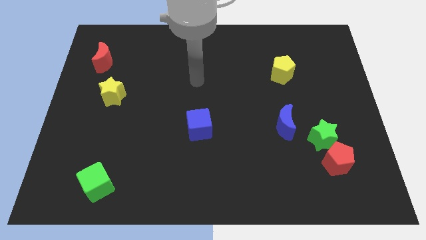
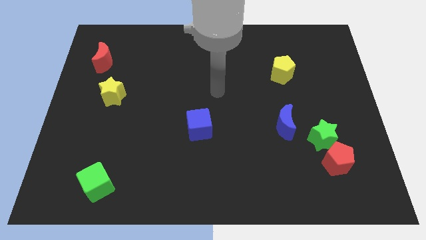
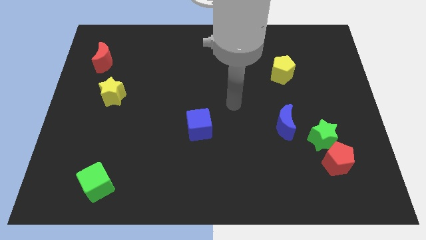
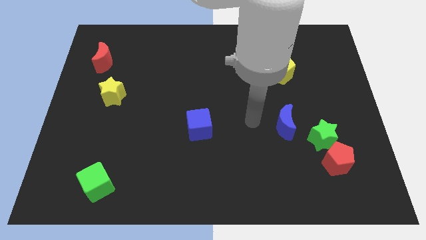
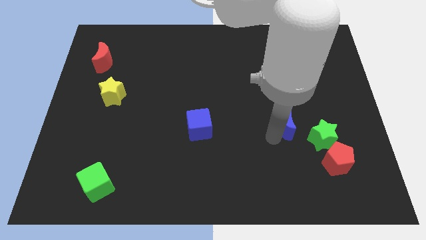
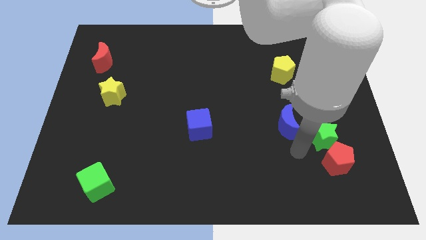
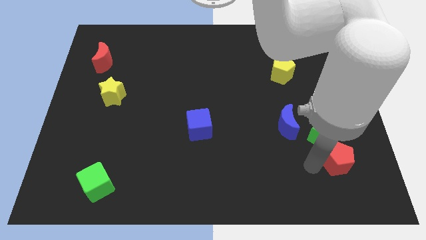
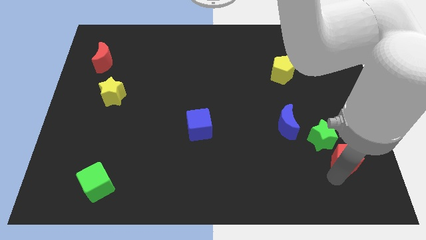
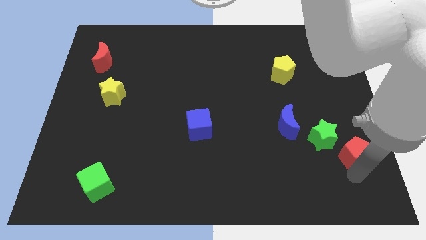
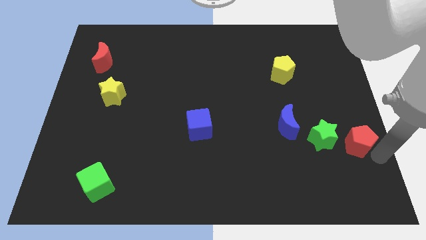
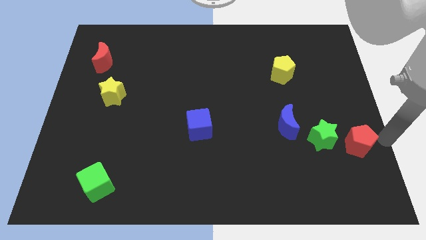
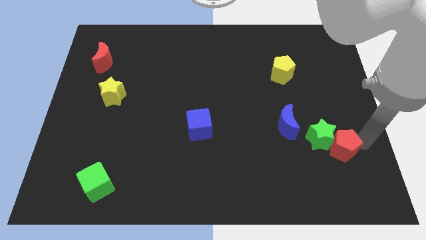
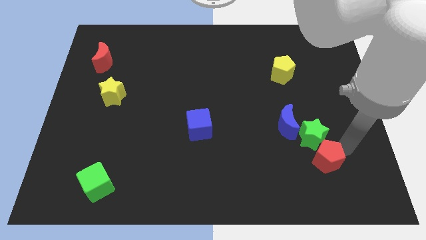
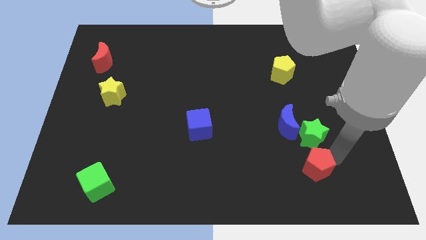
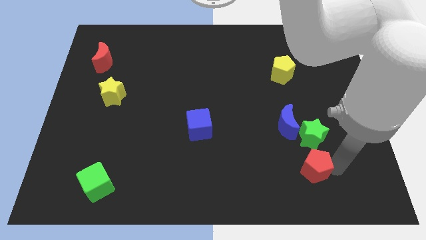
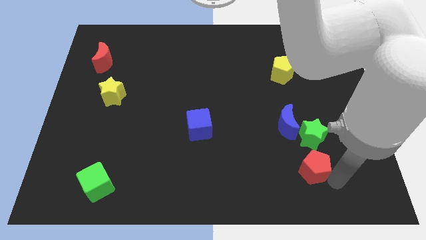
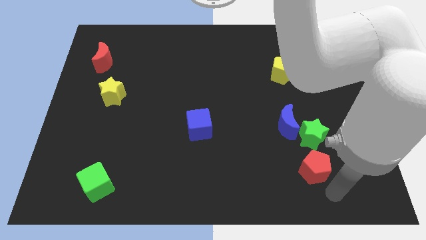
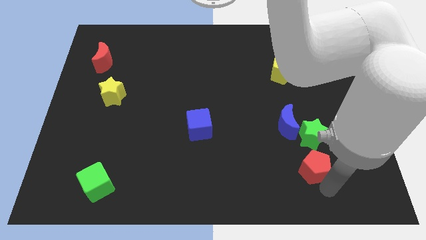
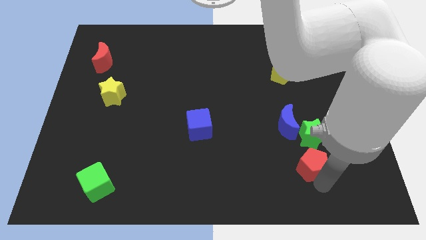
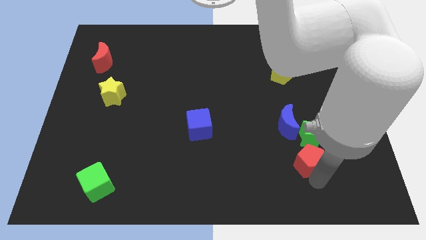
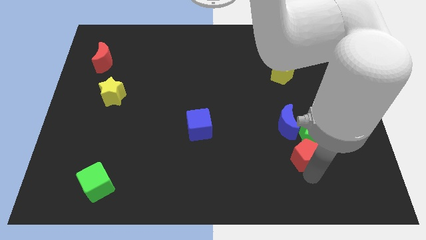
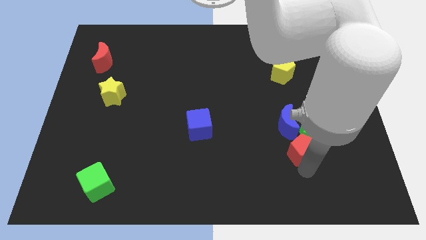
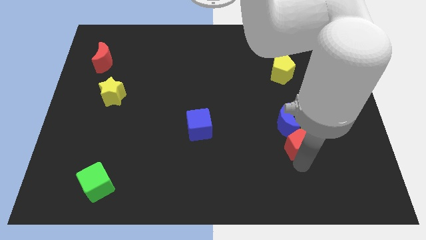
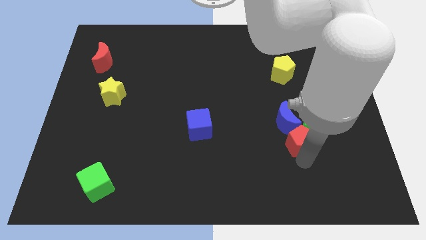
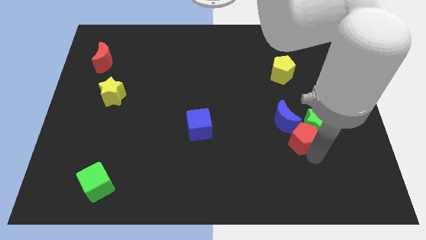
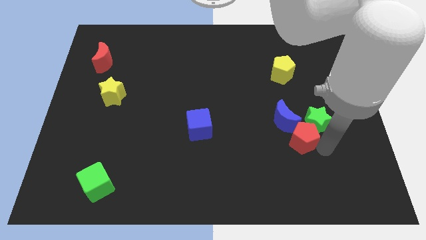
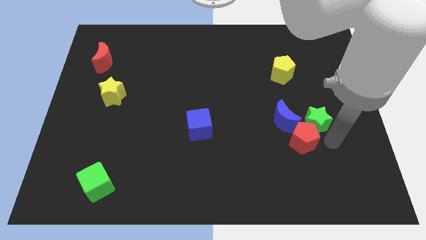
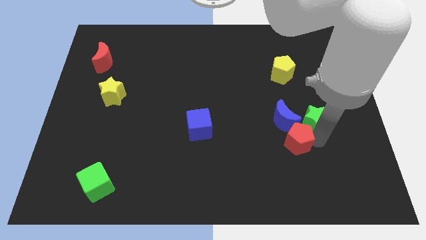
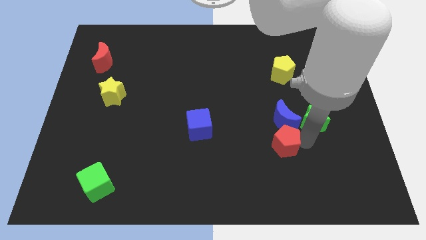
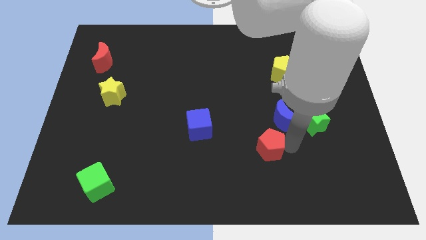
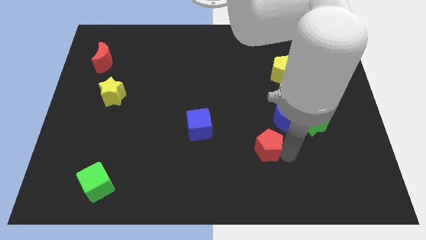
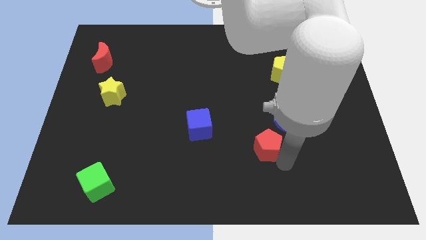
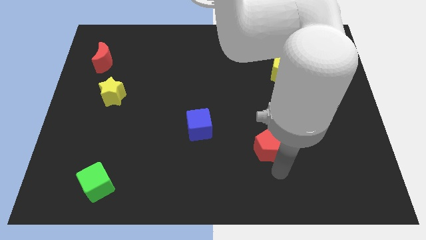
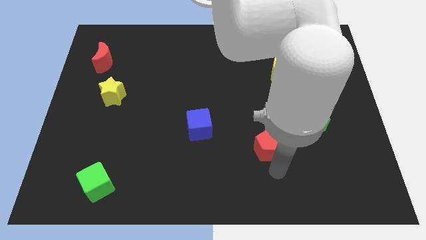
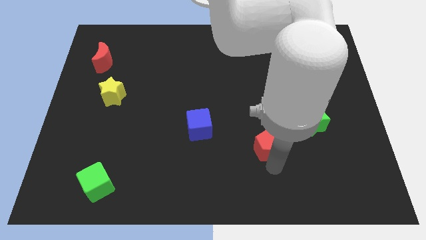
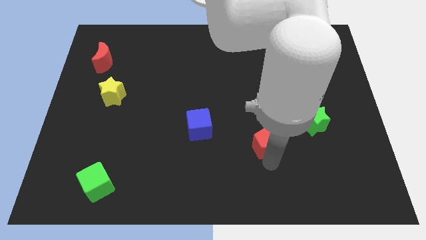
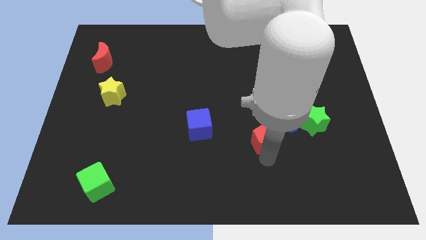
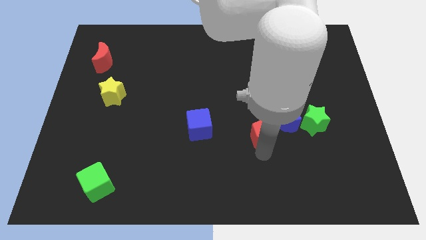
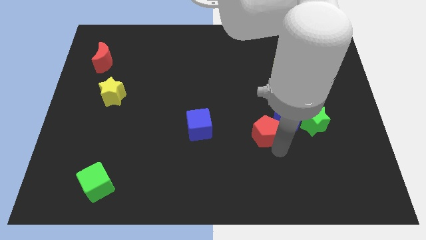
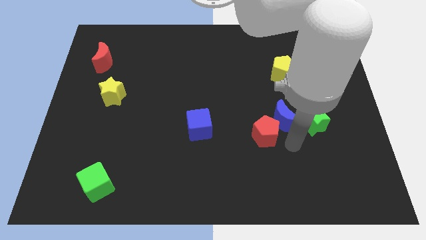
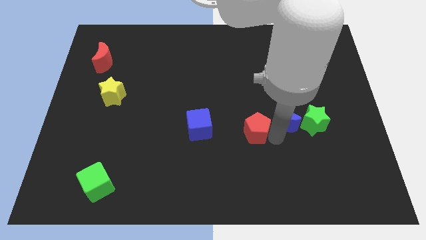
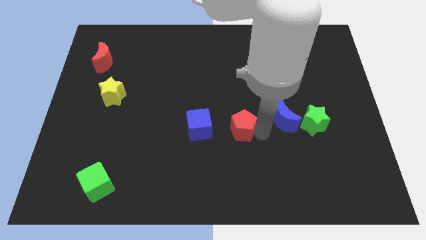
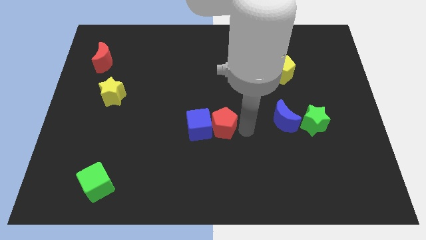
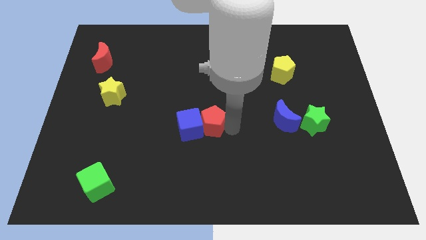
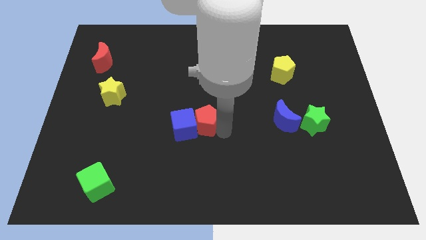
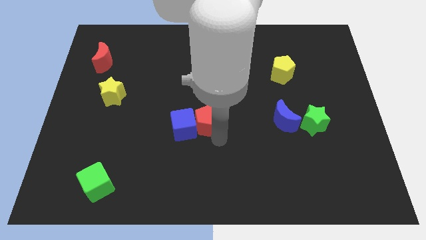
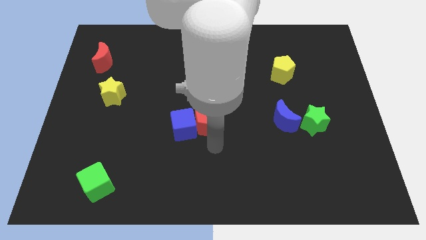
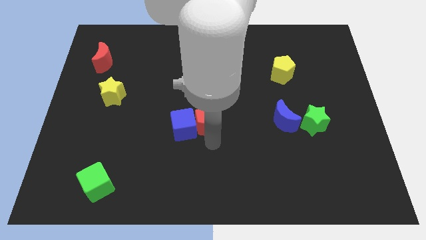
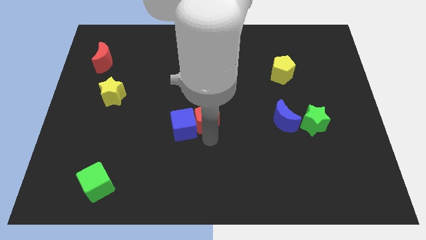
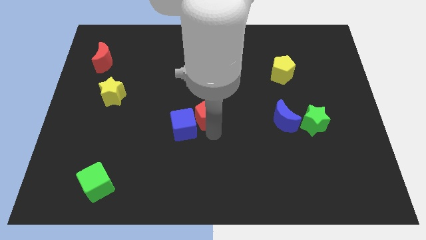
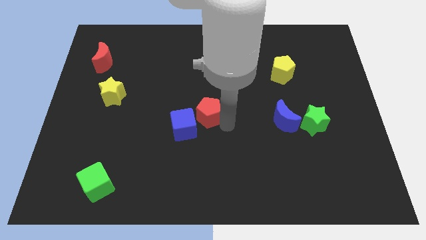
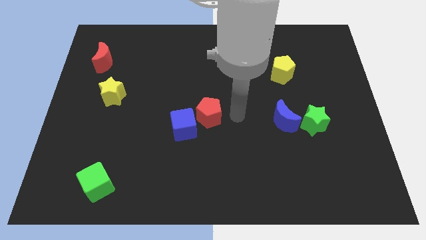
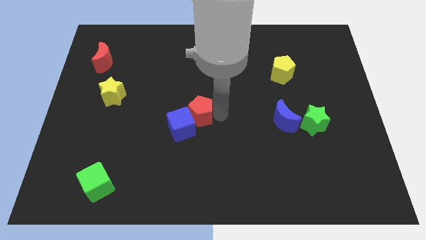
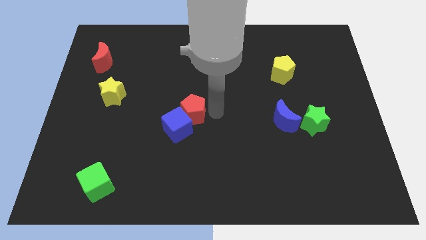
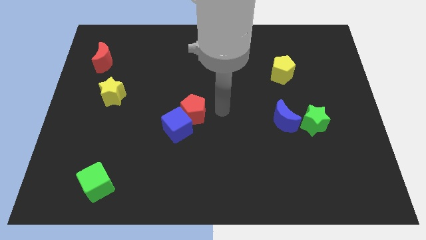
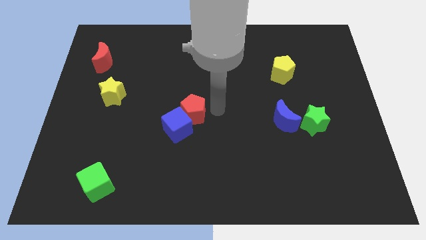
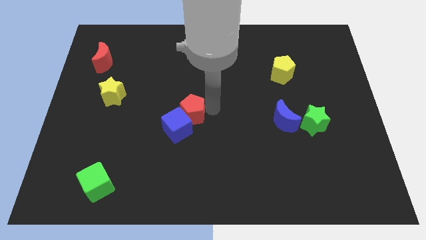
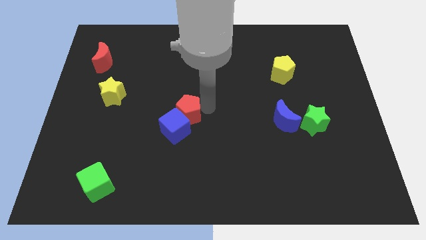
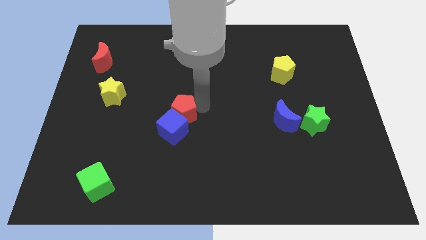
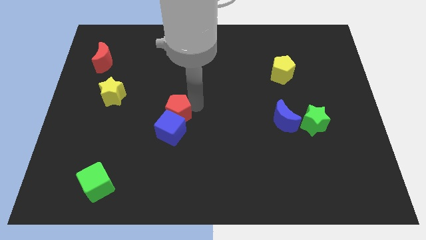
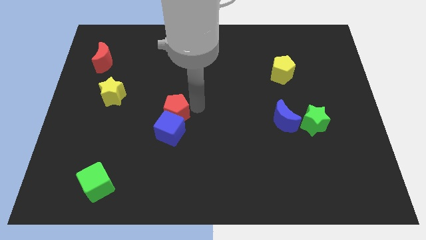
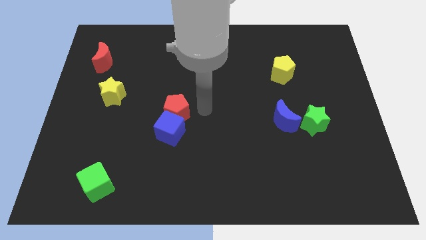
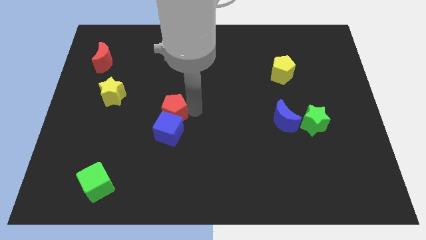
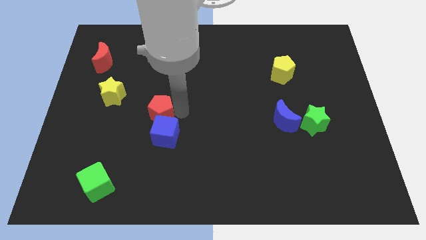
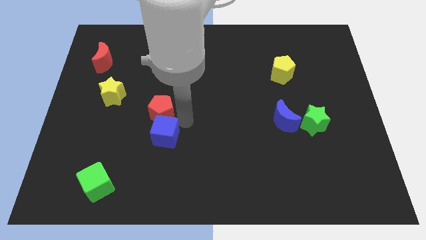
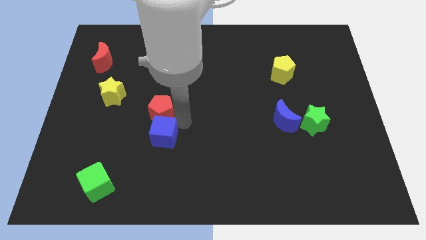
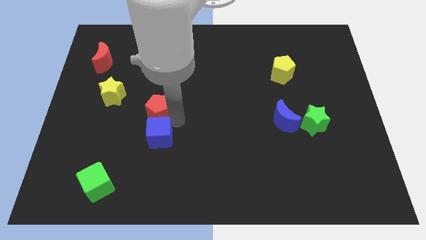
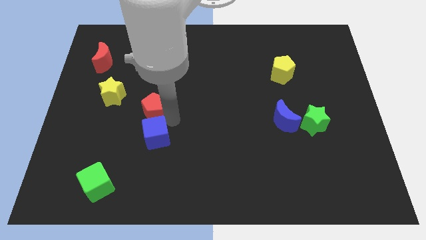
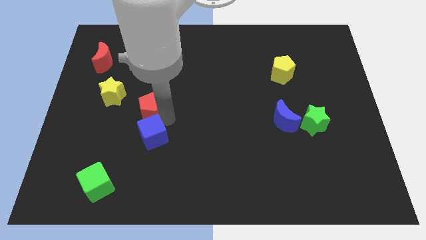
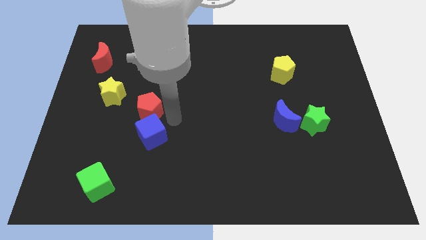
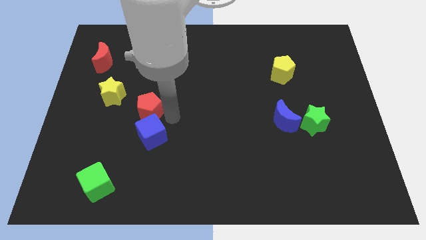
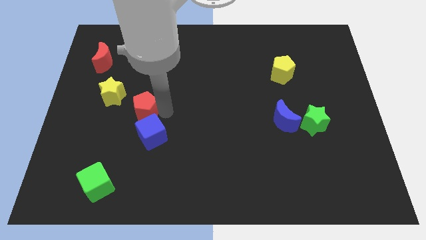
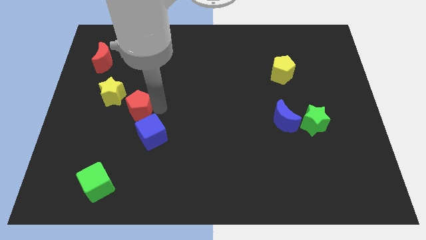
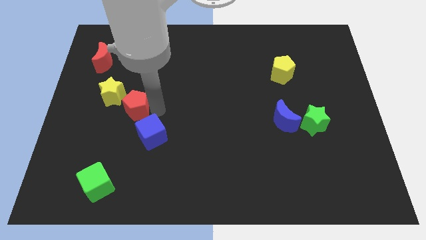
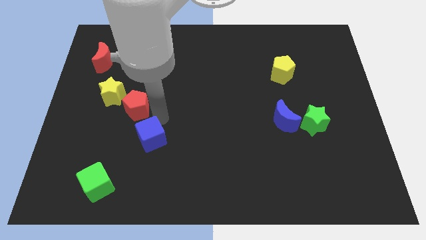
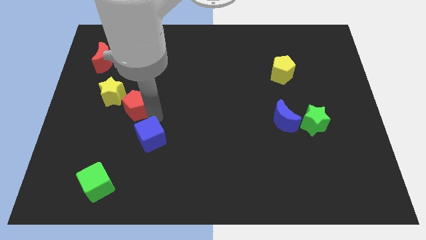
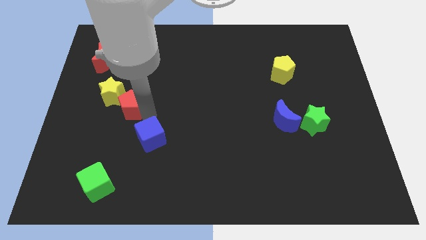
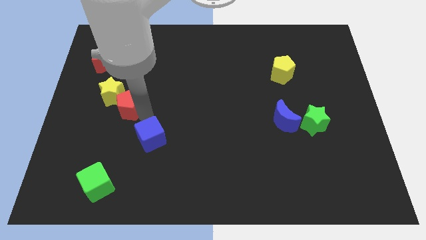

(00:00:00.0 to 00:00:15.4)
move the red pentagon close to the yellow star
